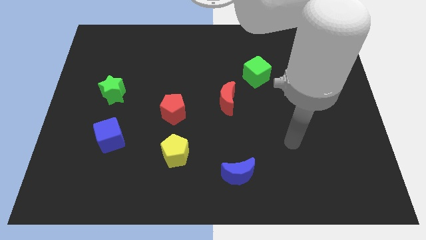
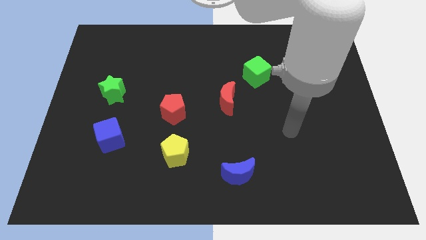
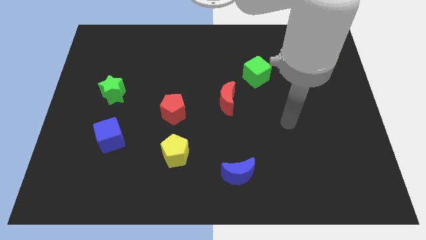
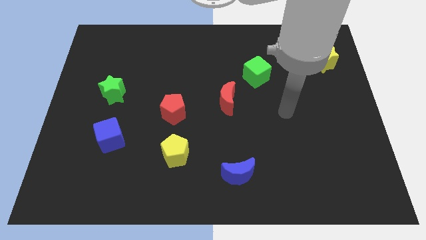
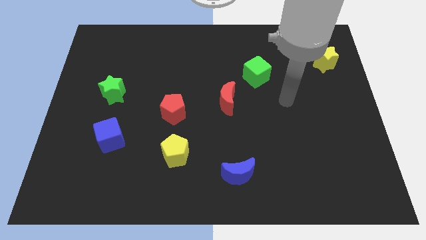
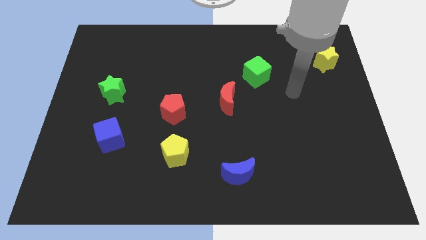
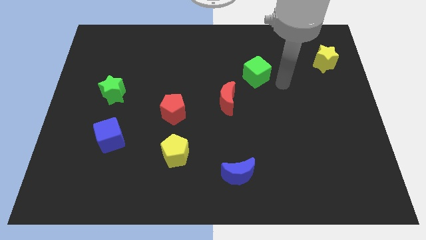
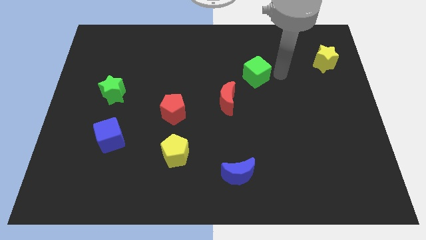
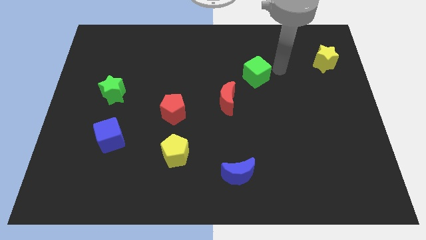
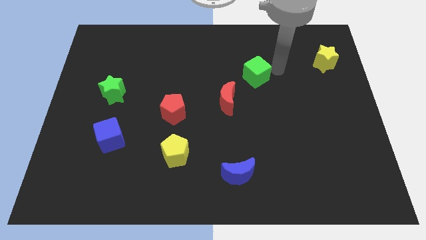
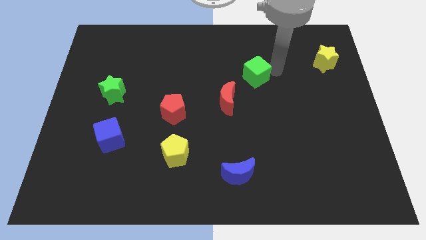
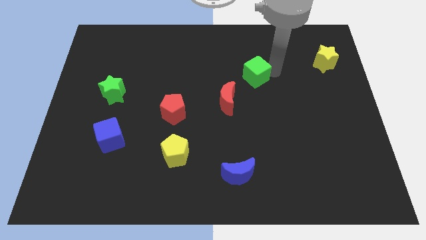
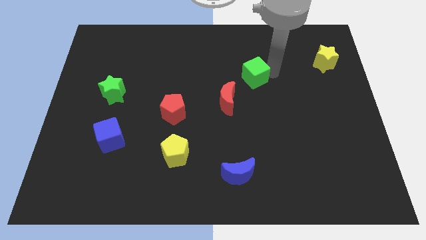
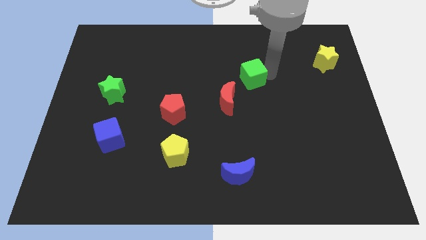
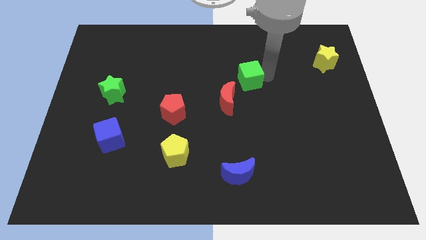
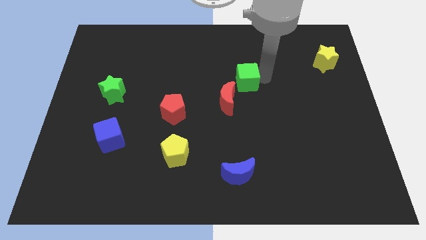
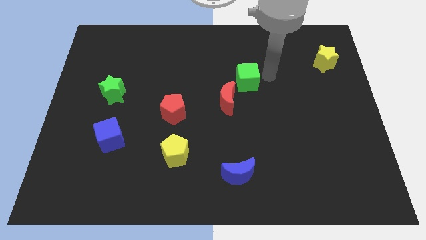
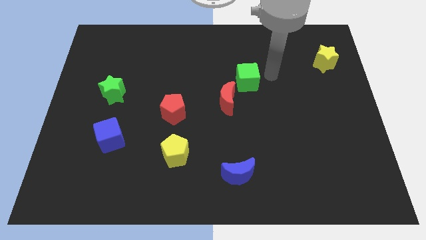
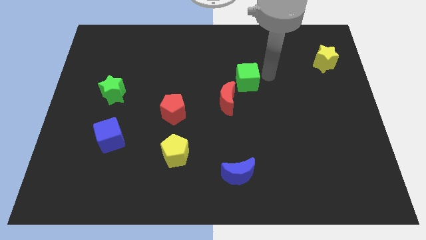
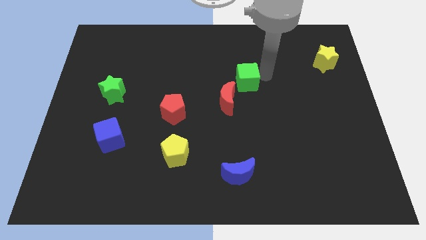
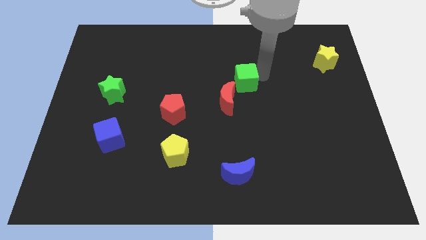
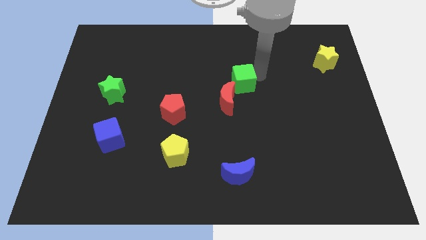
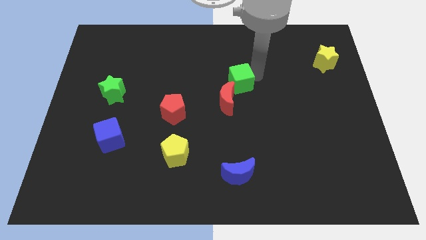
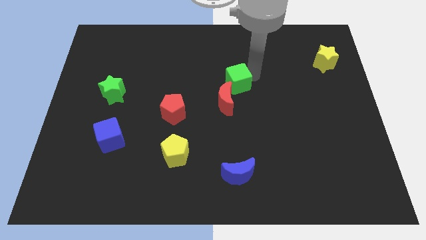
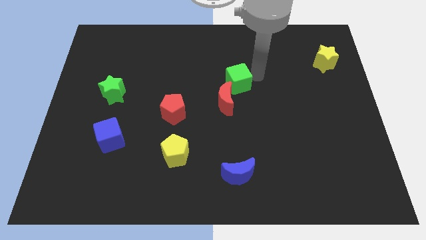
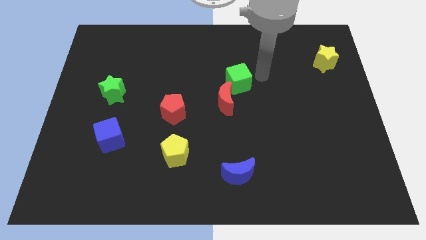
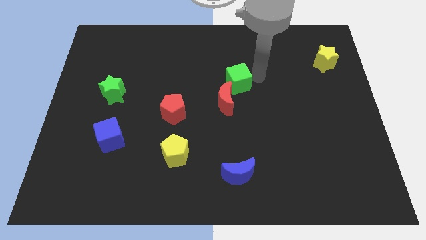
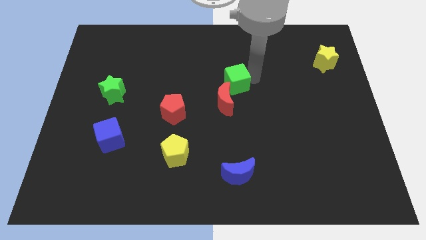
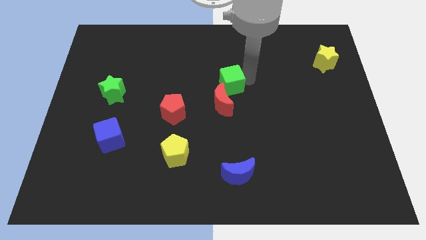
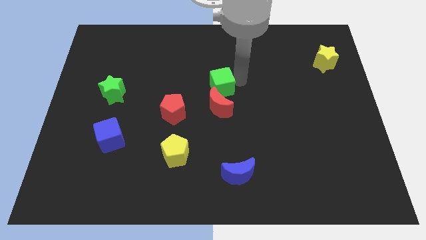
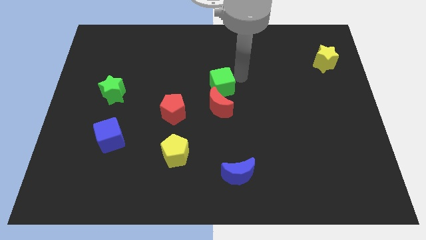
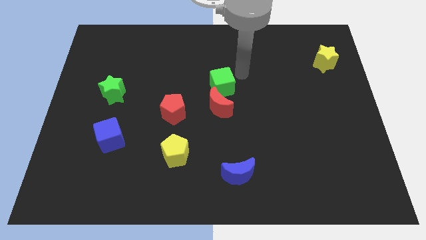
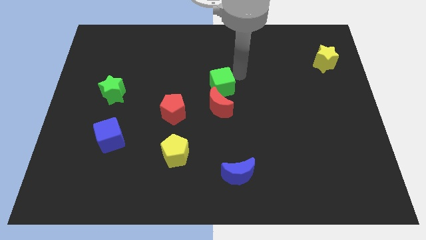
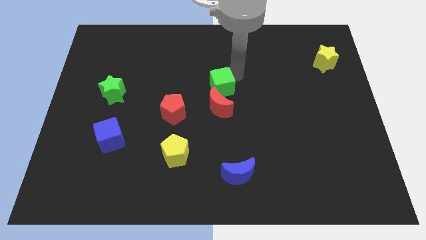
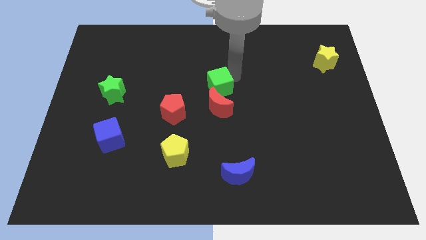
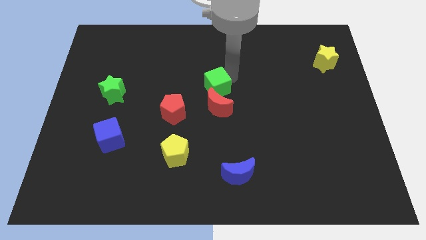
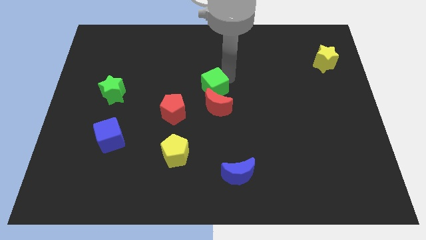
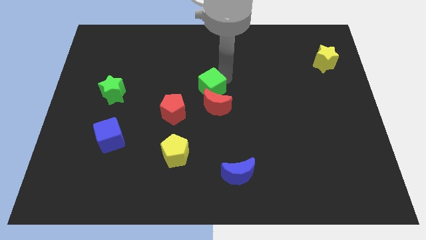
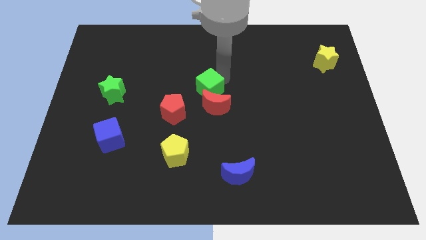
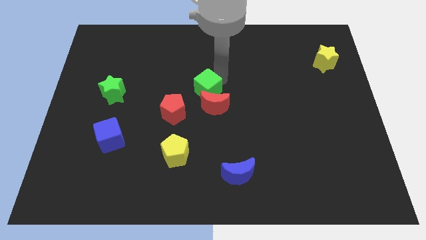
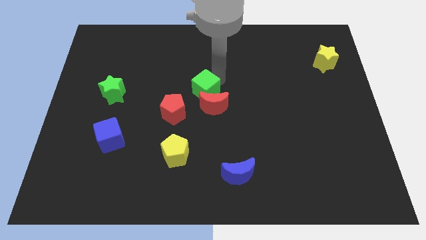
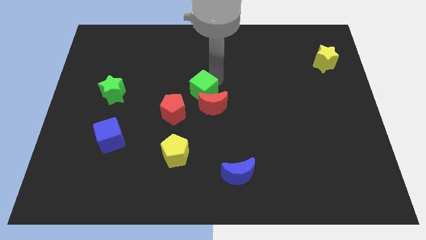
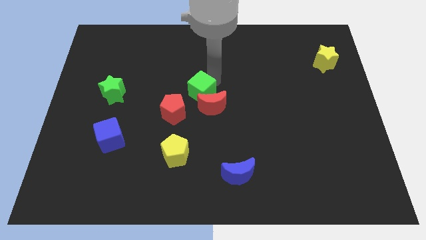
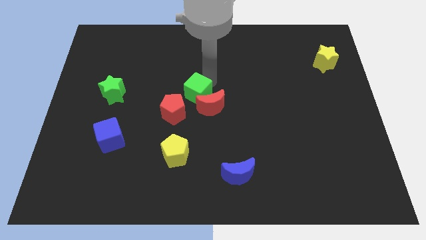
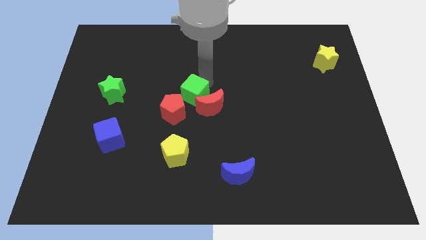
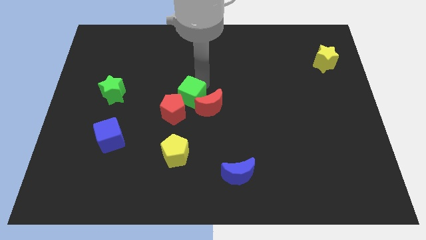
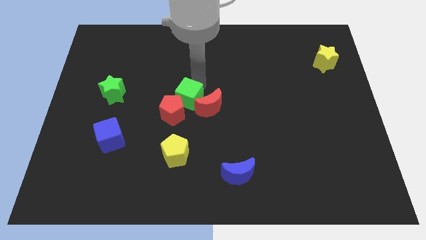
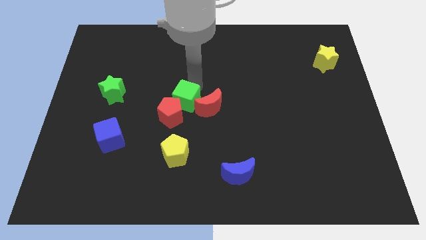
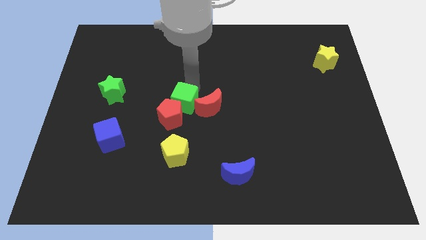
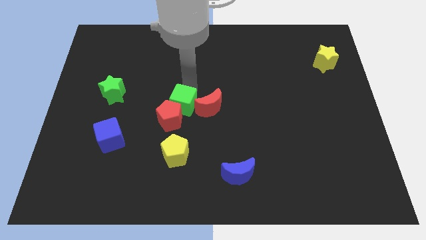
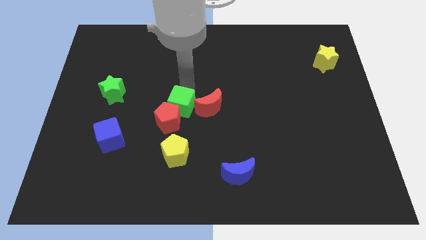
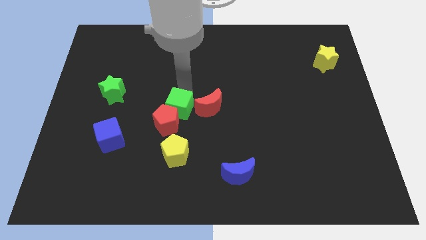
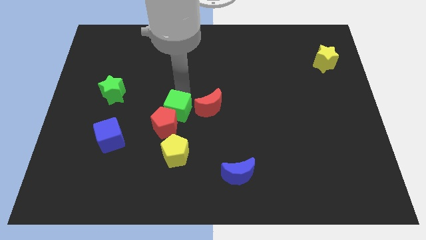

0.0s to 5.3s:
push the green cube to the bottom left of the red moon

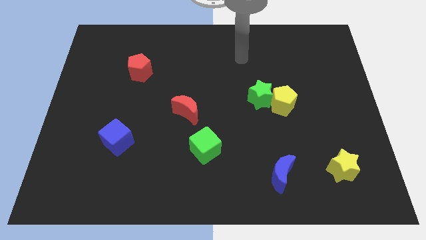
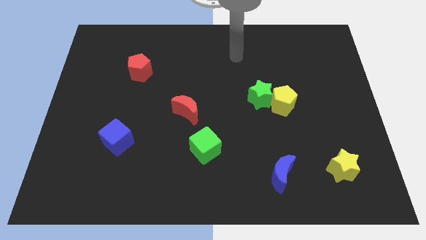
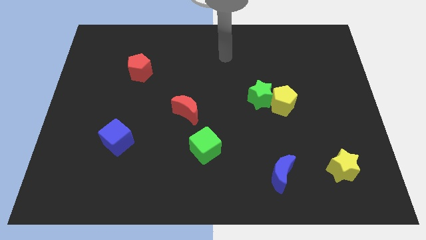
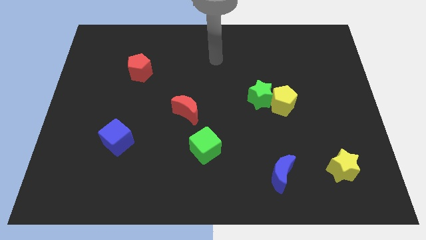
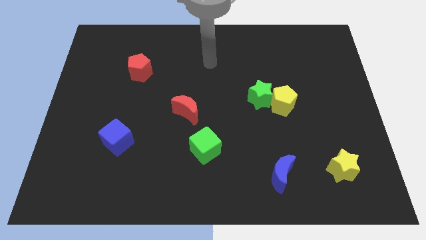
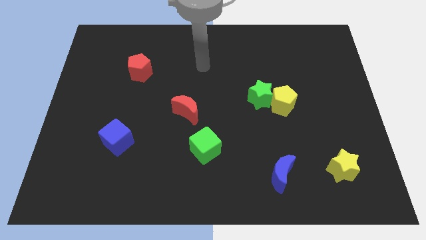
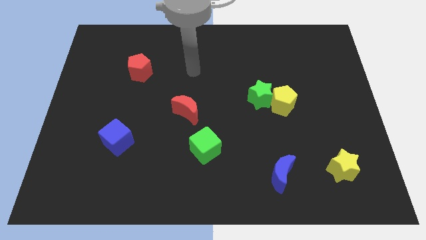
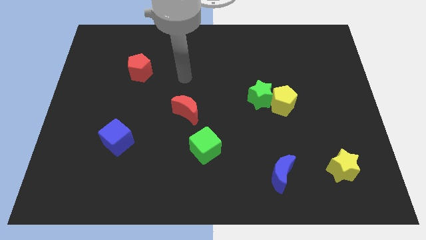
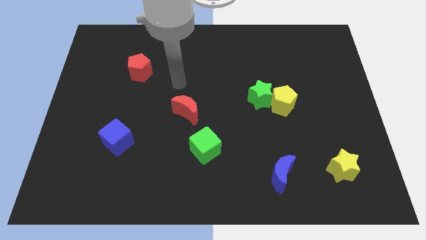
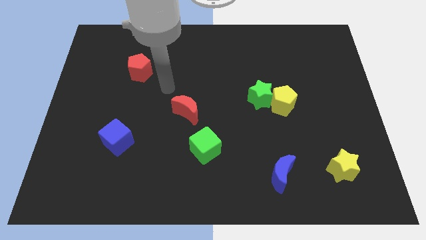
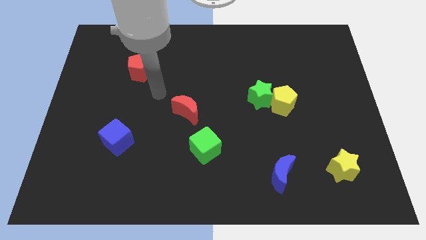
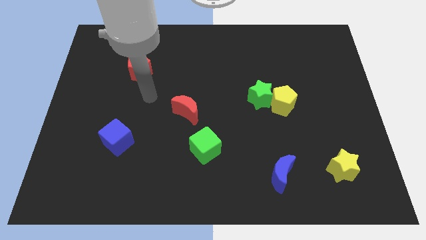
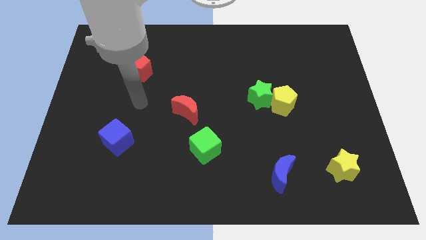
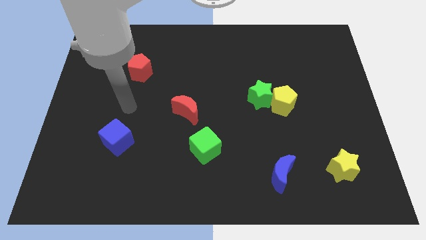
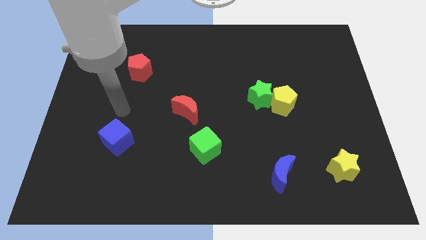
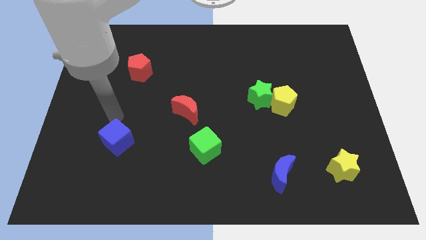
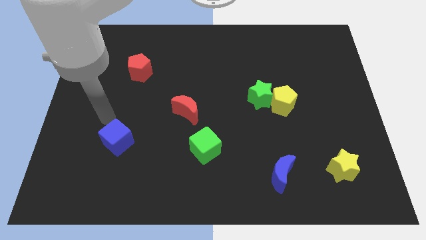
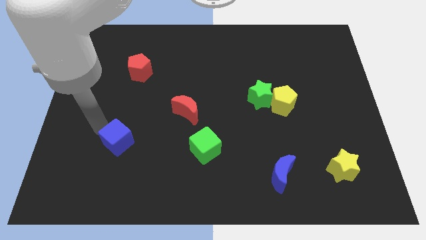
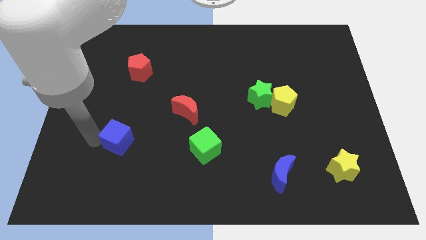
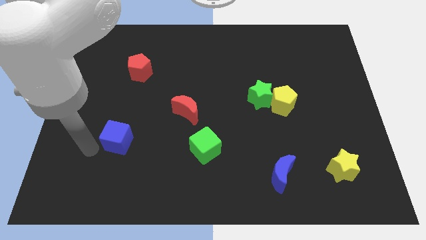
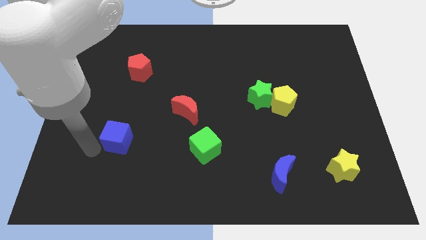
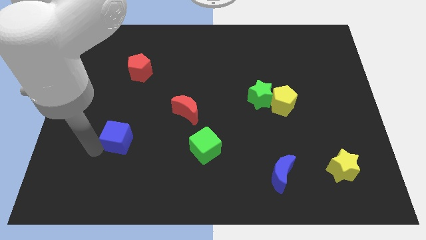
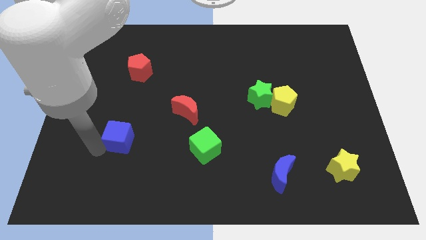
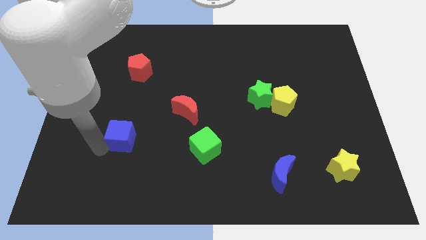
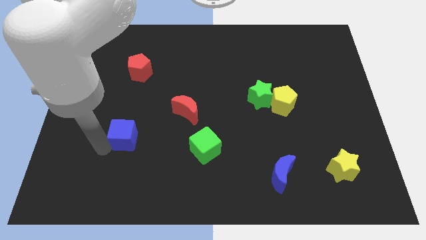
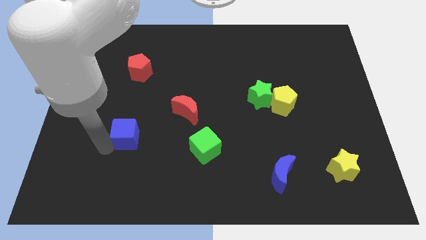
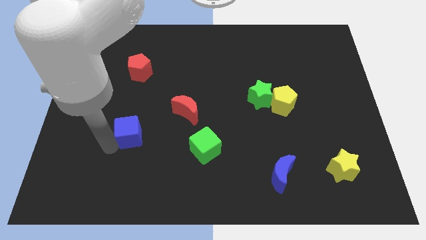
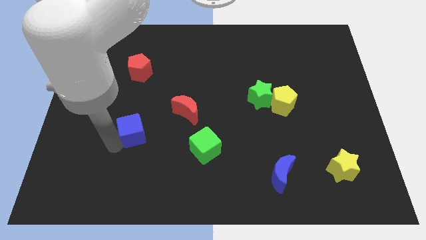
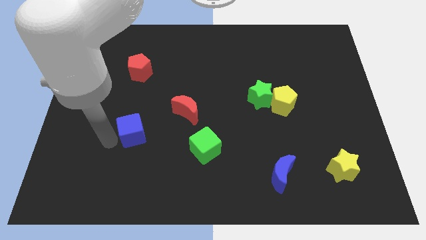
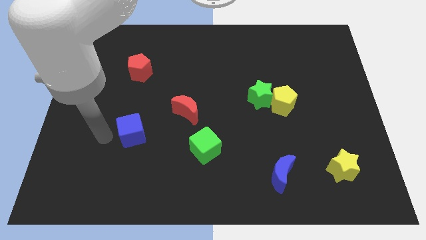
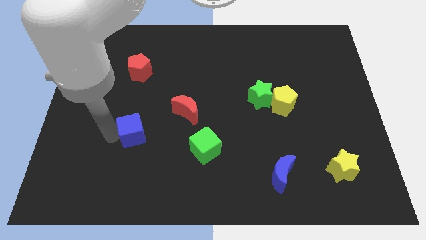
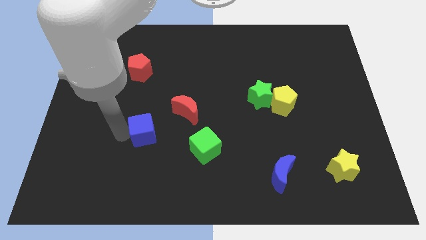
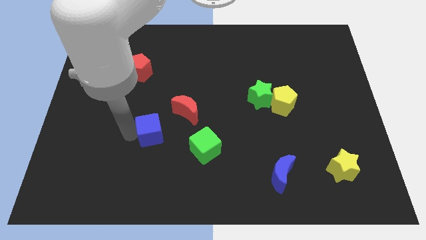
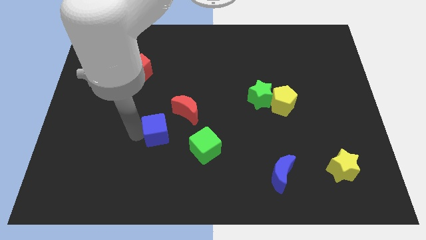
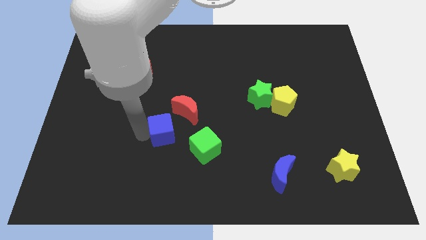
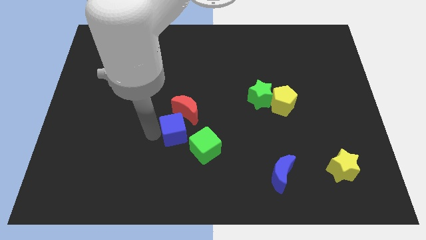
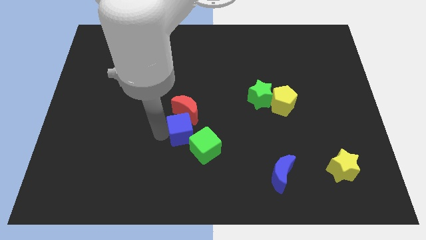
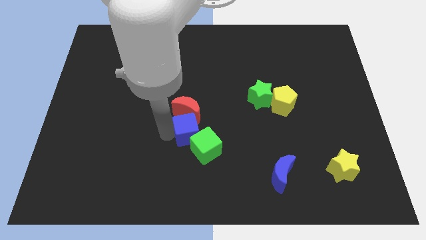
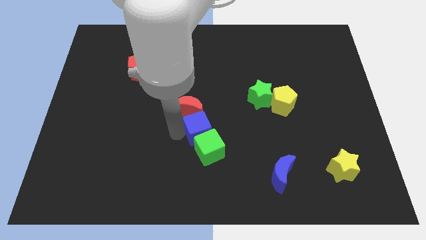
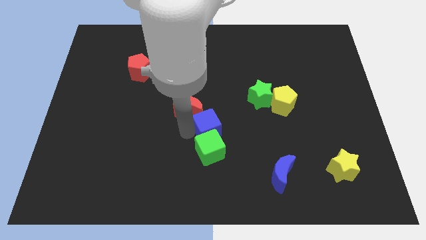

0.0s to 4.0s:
move the blue cube to the top right of the green cube
